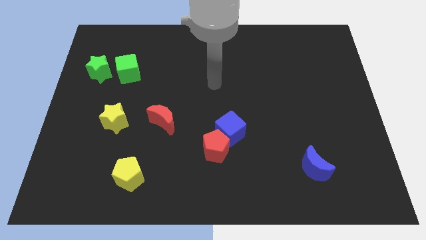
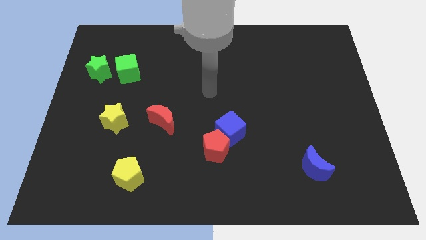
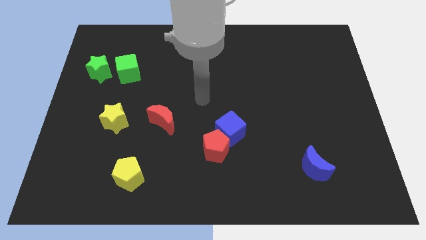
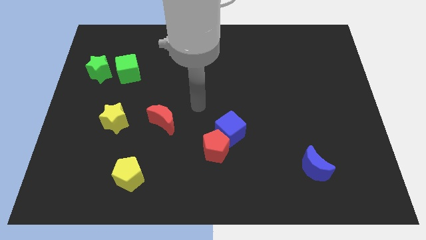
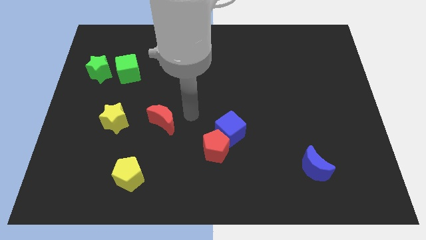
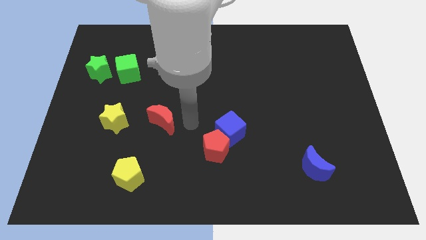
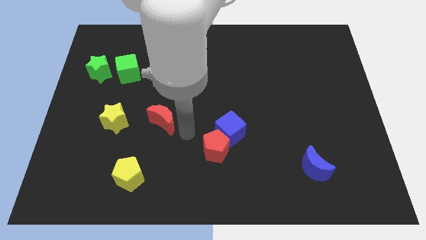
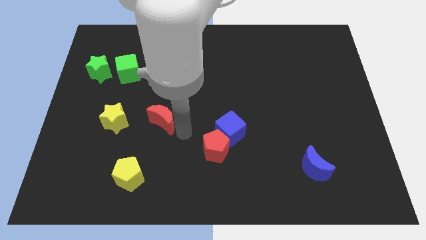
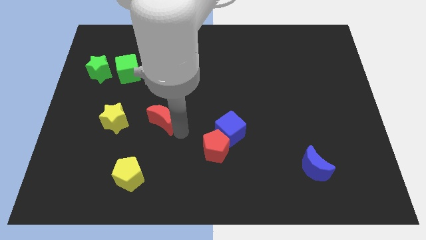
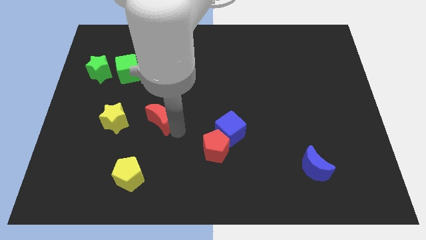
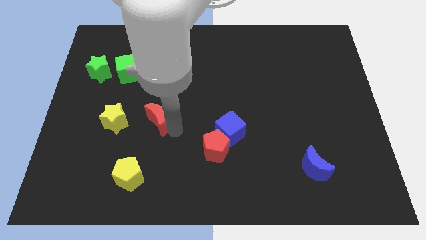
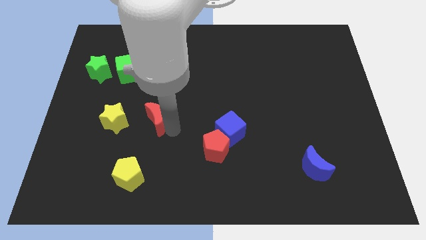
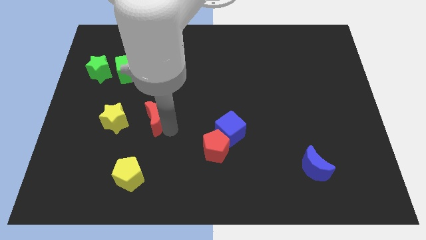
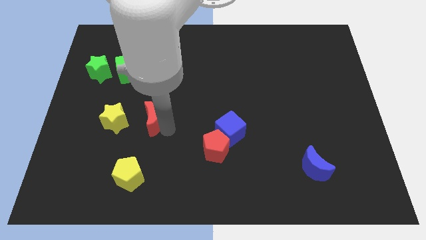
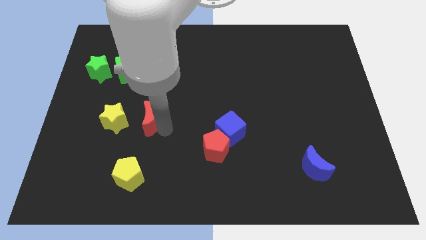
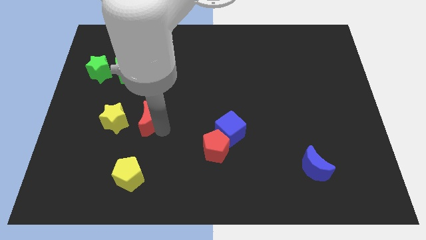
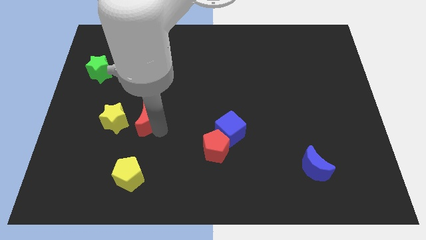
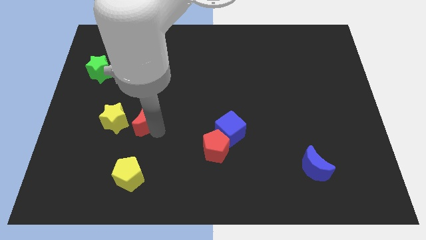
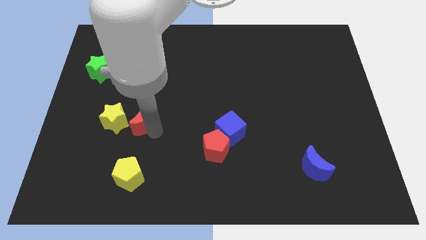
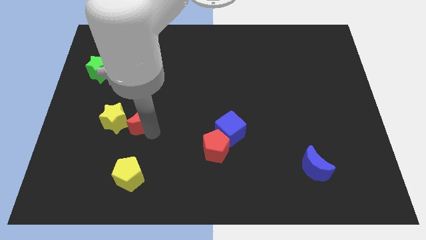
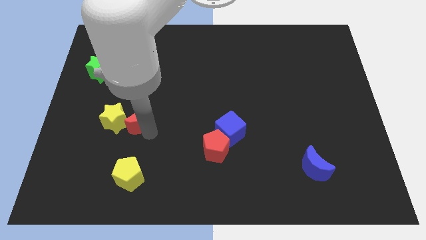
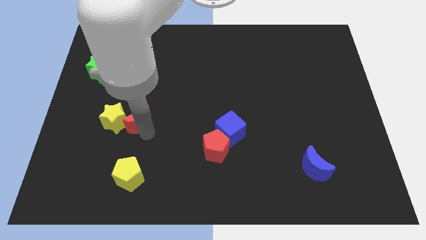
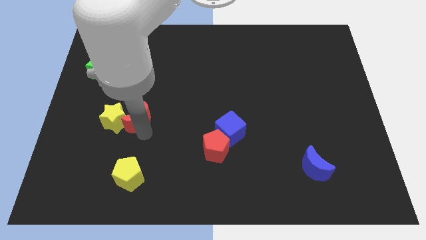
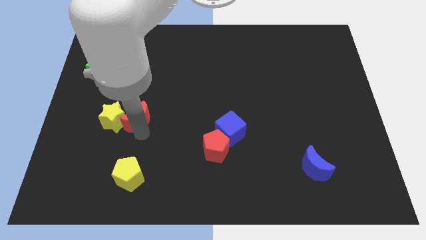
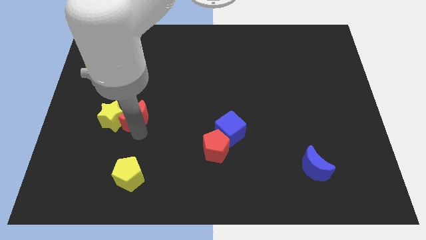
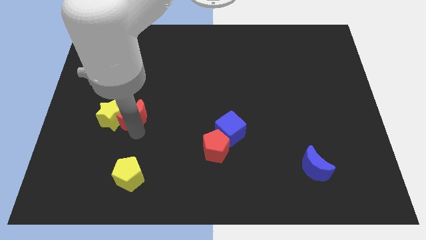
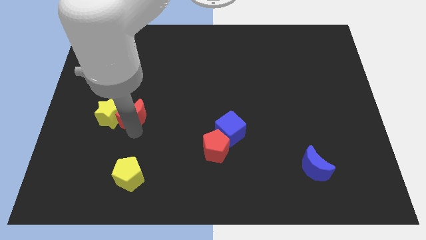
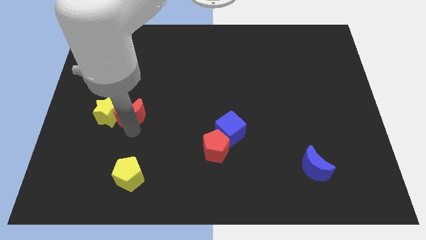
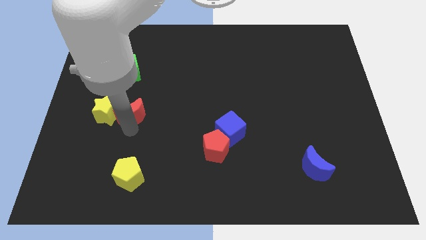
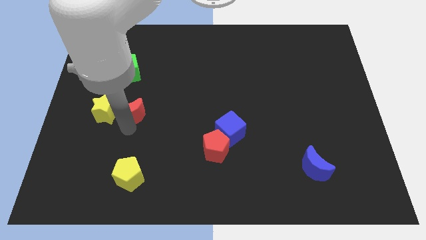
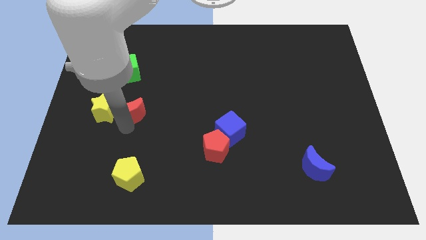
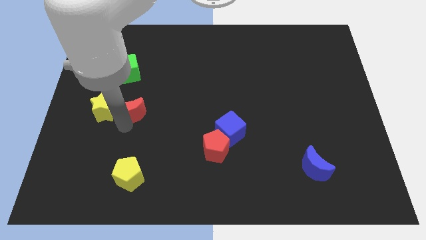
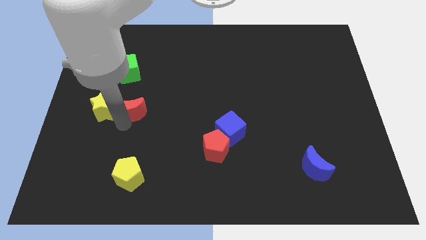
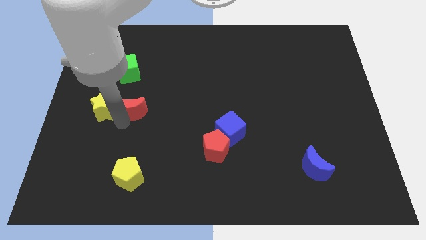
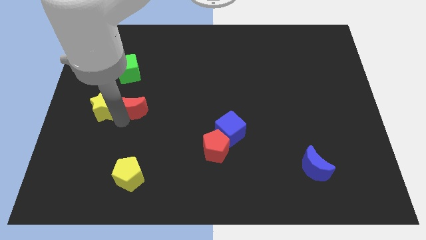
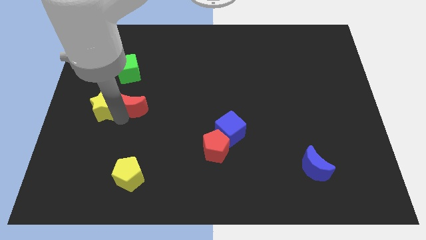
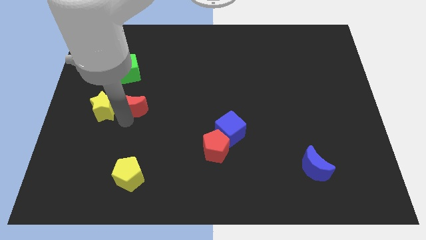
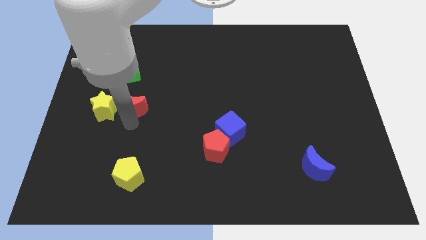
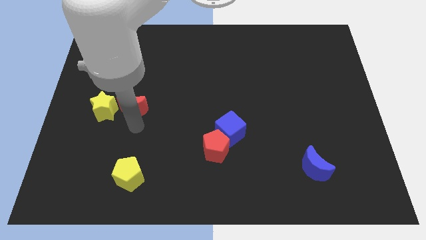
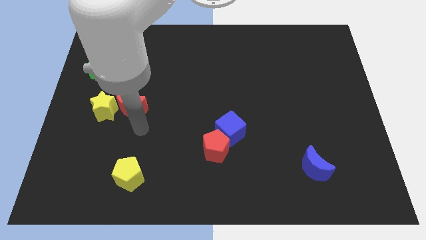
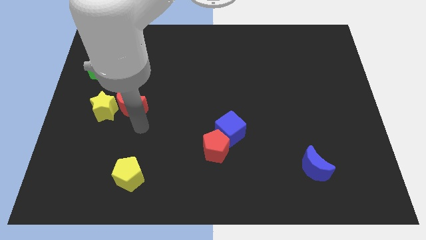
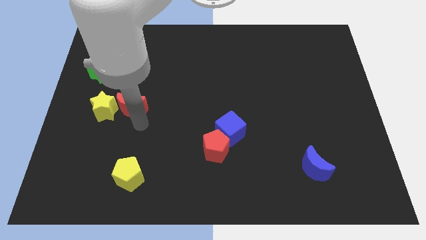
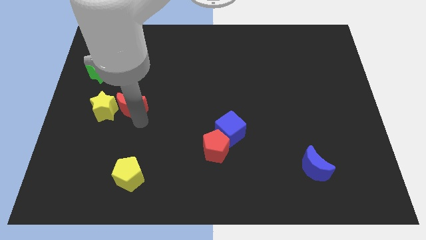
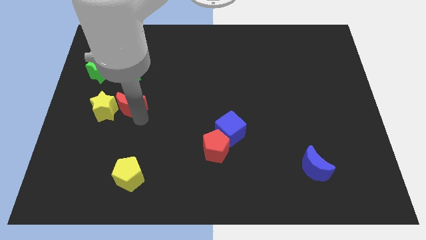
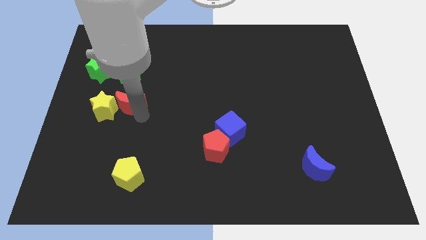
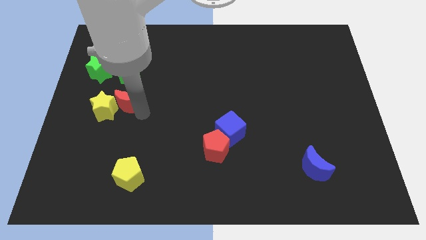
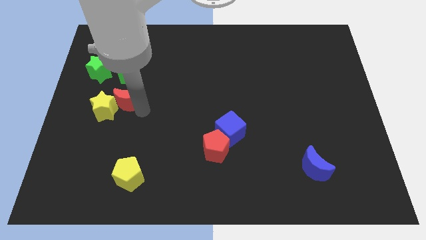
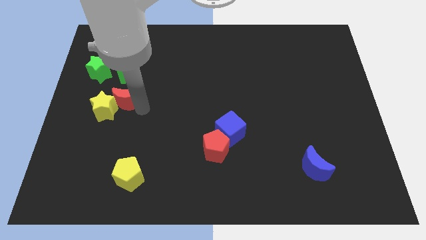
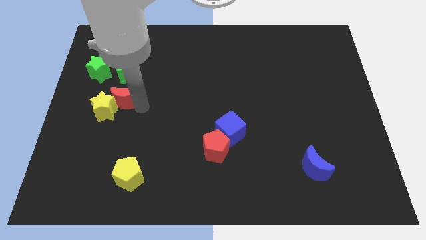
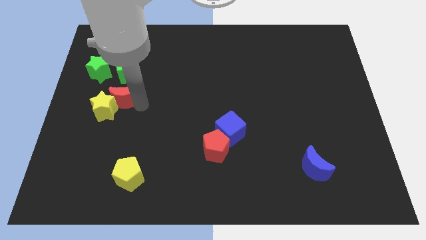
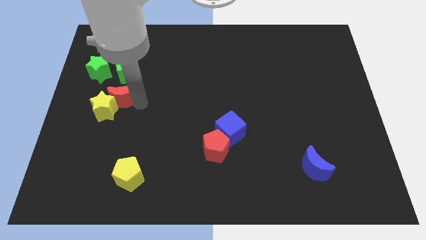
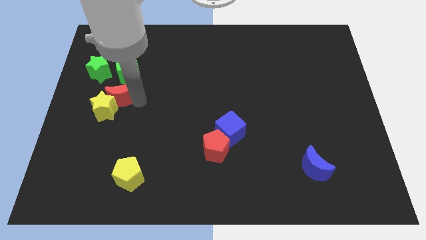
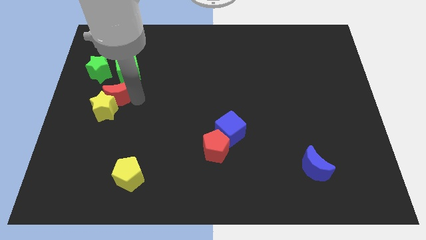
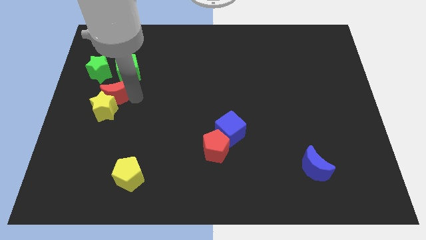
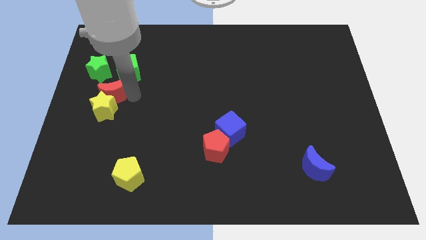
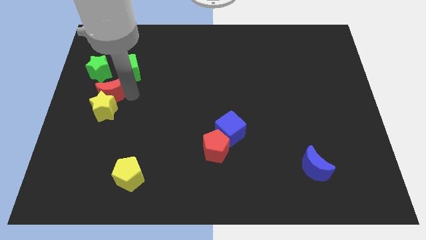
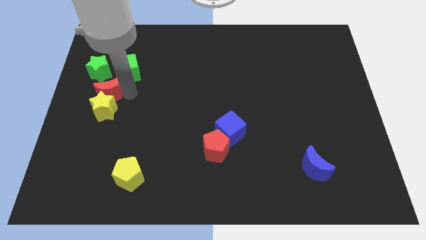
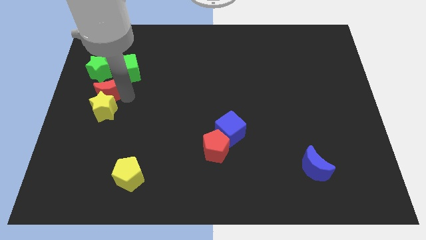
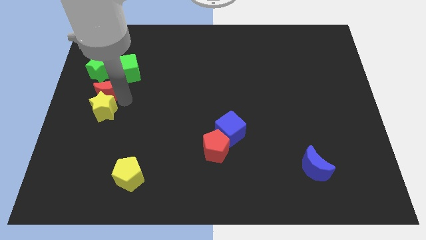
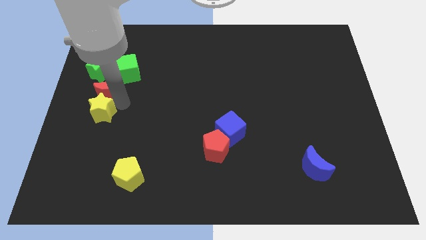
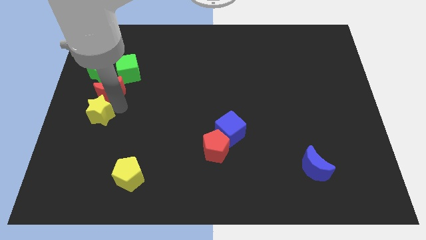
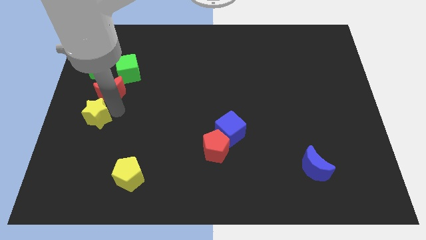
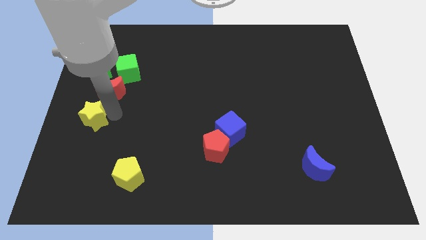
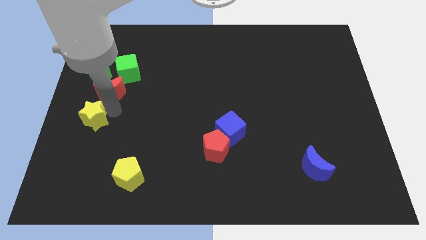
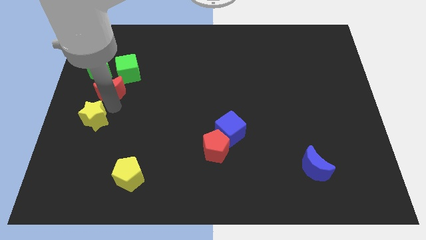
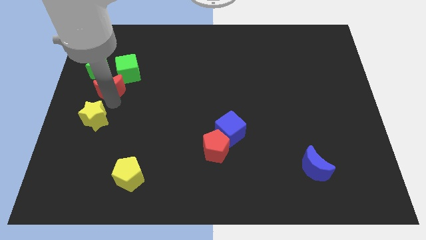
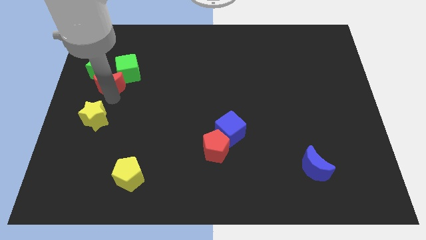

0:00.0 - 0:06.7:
push the red moon to the green star

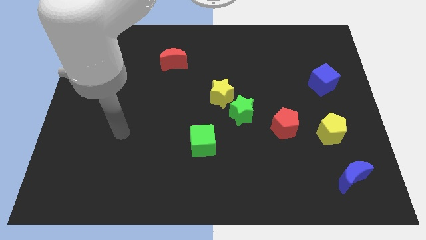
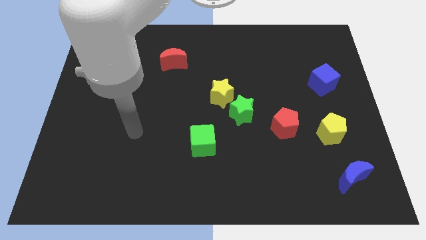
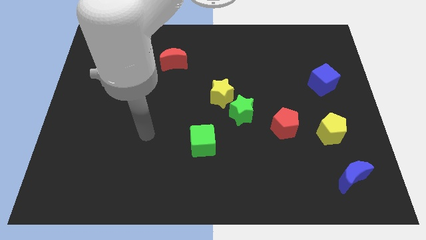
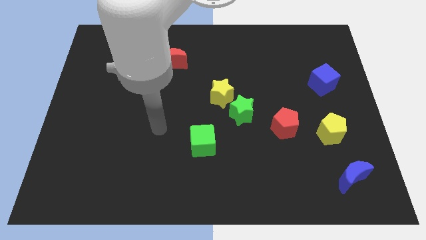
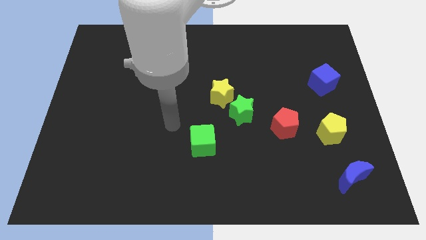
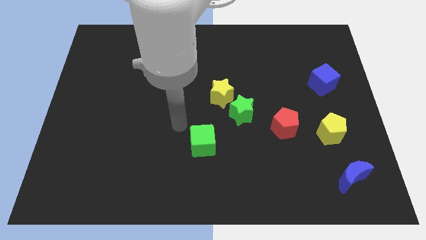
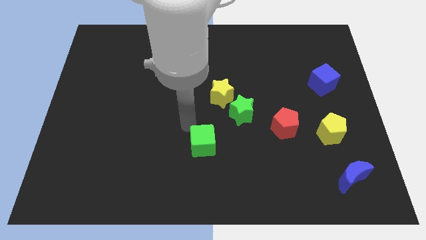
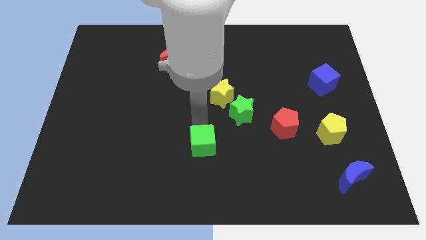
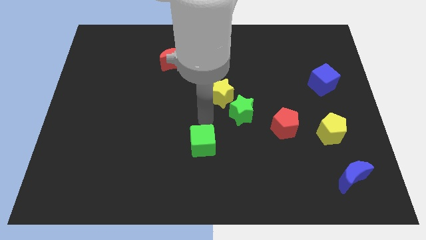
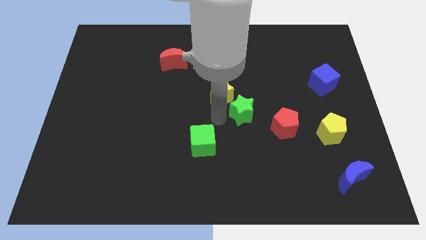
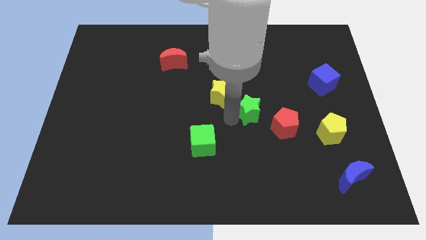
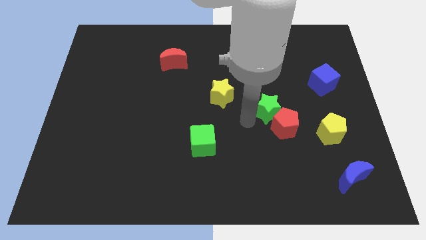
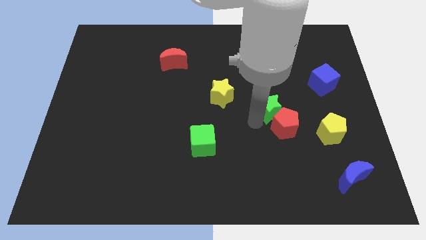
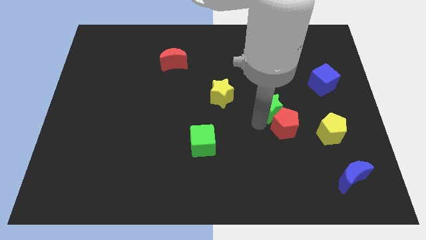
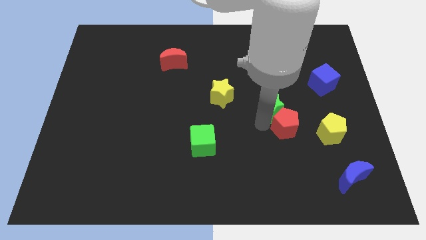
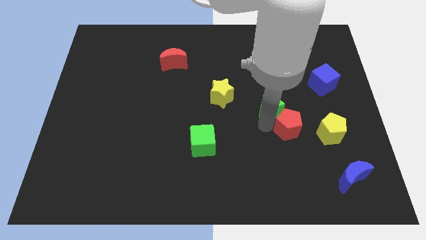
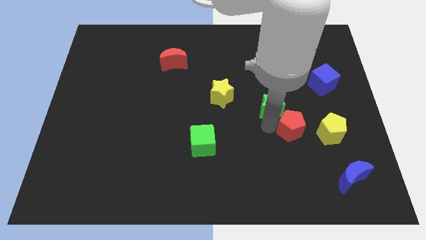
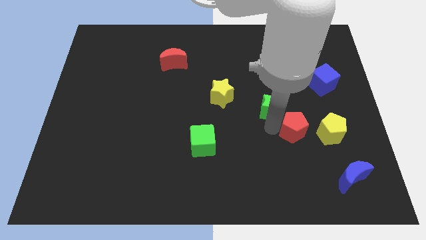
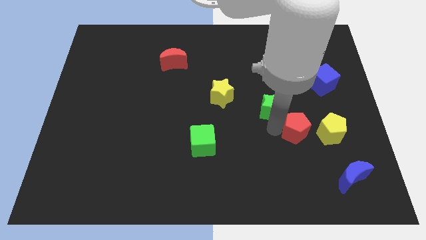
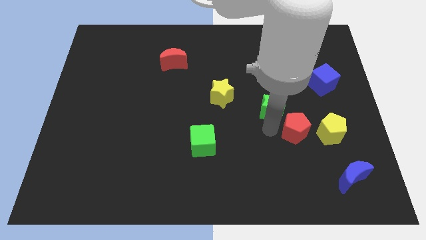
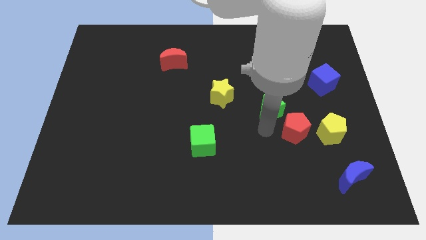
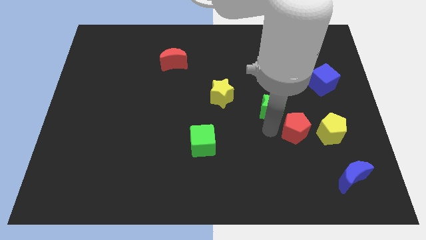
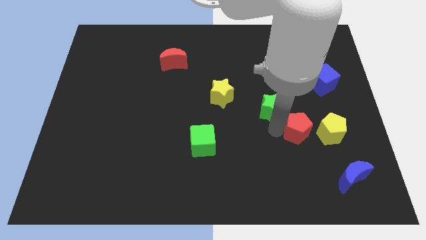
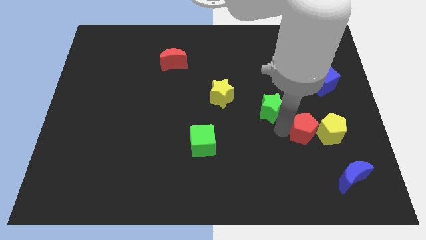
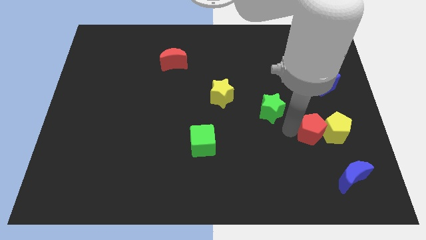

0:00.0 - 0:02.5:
push the red pentagon to the yellow pentagon
